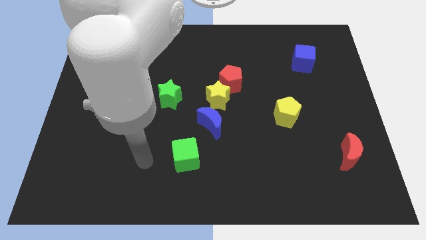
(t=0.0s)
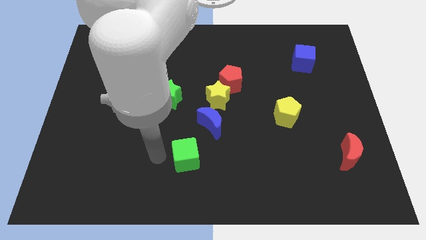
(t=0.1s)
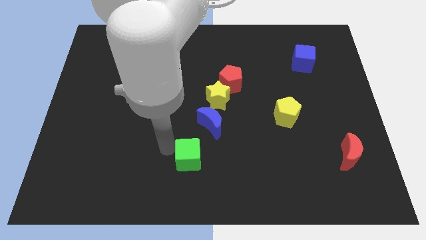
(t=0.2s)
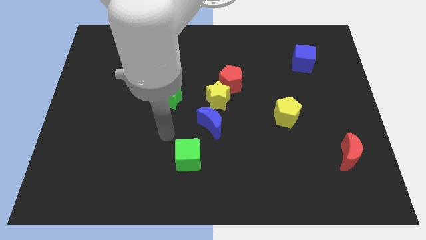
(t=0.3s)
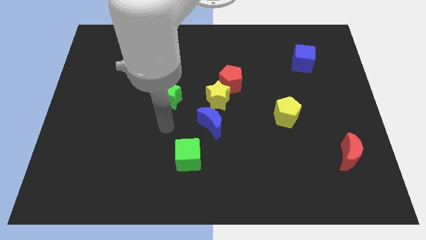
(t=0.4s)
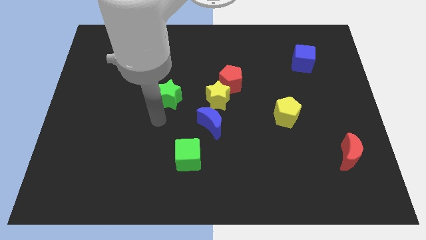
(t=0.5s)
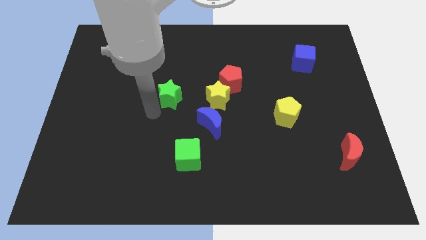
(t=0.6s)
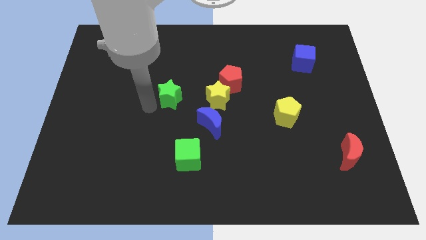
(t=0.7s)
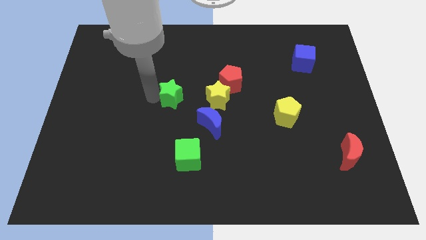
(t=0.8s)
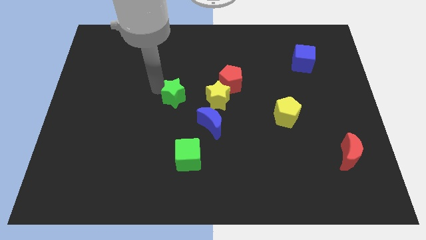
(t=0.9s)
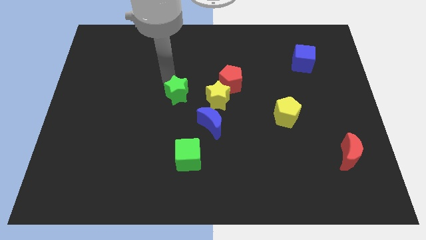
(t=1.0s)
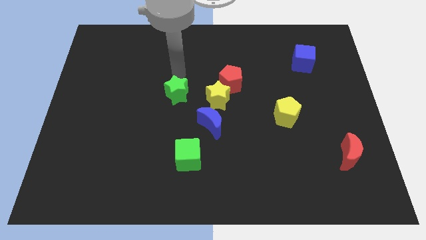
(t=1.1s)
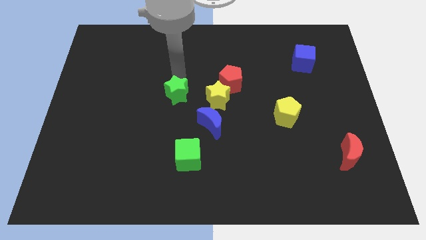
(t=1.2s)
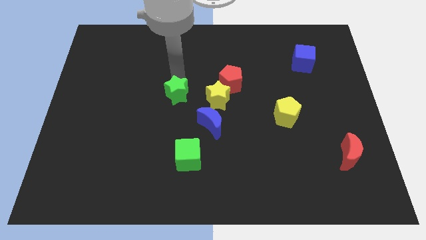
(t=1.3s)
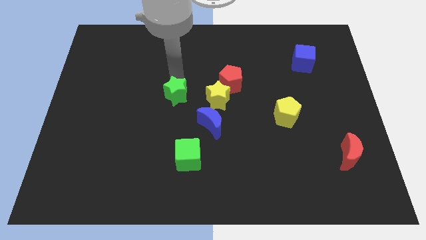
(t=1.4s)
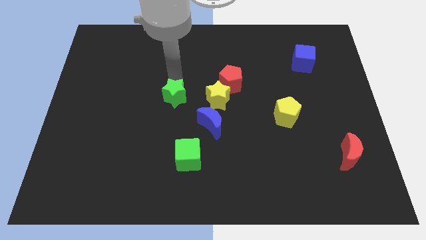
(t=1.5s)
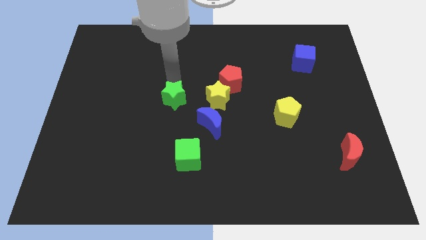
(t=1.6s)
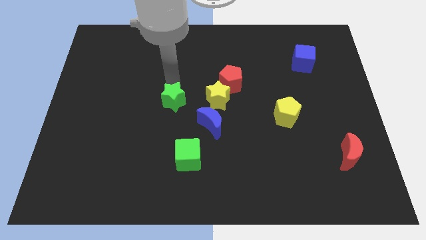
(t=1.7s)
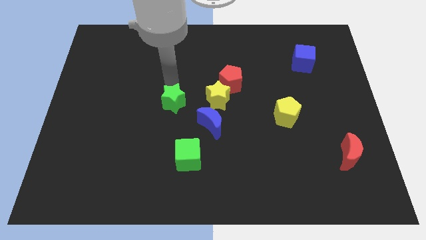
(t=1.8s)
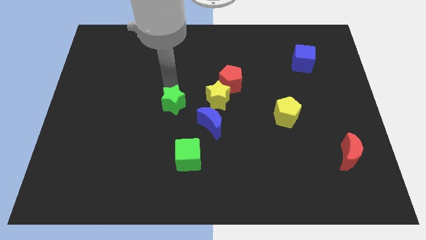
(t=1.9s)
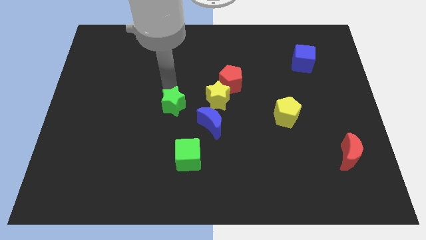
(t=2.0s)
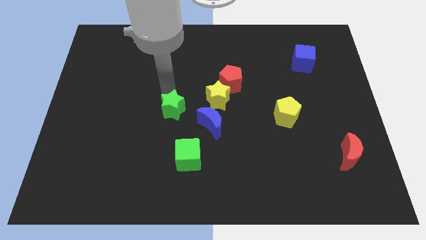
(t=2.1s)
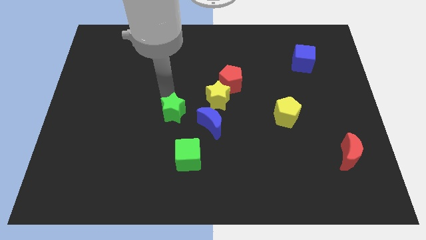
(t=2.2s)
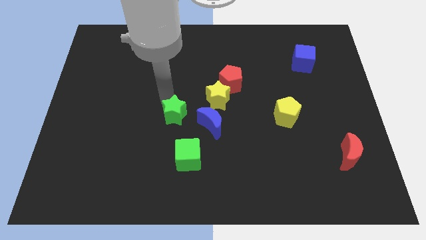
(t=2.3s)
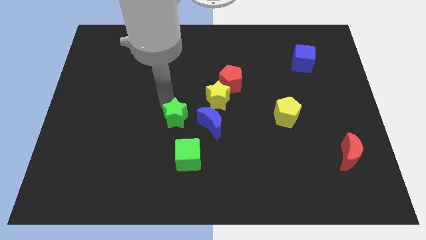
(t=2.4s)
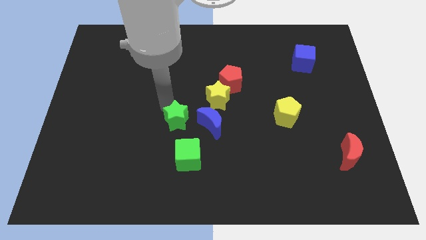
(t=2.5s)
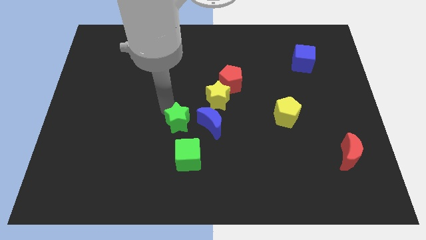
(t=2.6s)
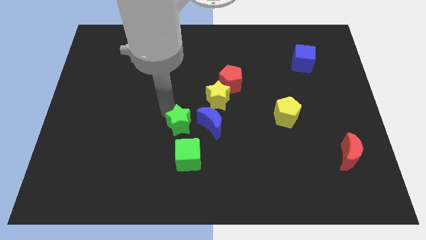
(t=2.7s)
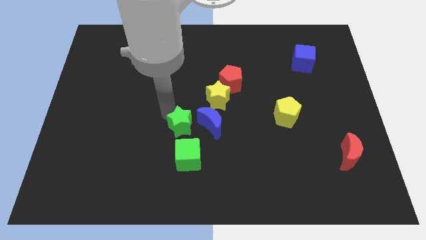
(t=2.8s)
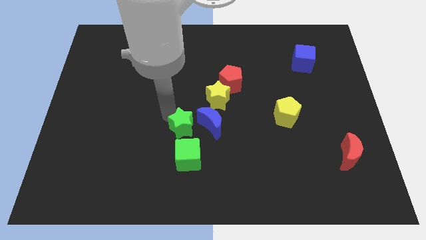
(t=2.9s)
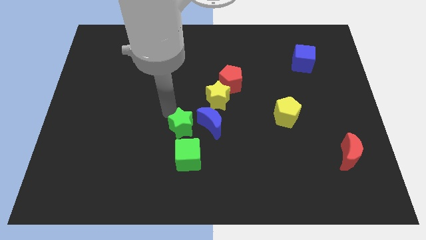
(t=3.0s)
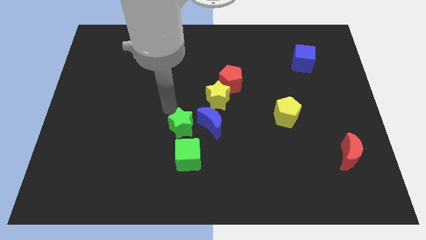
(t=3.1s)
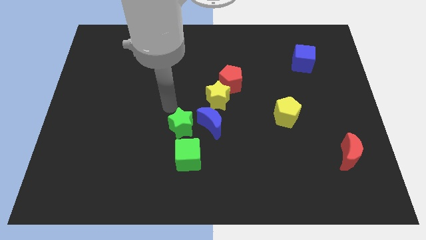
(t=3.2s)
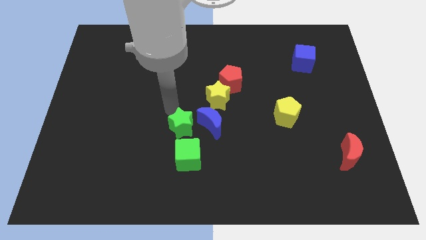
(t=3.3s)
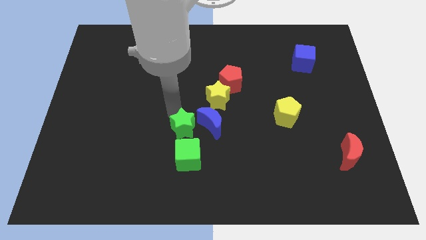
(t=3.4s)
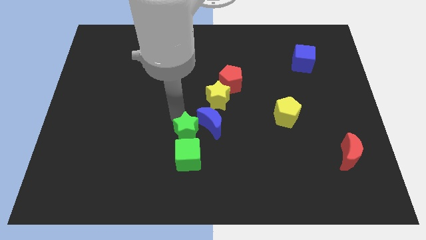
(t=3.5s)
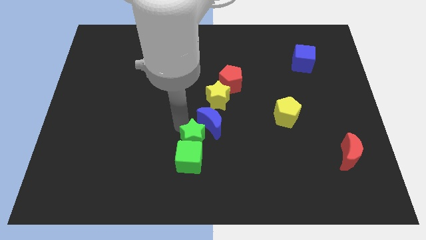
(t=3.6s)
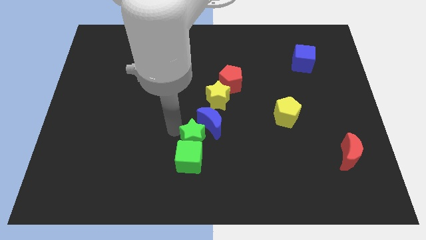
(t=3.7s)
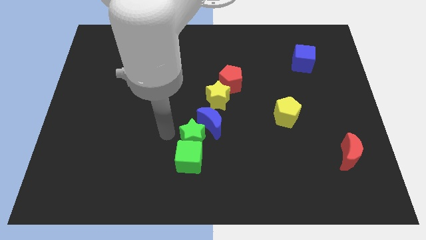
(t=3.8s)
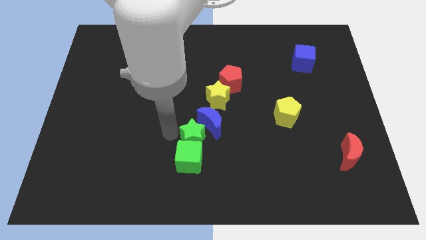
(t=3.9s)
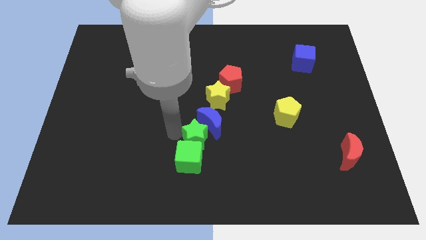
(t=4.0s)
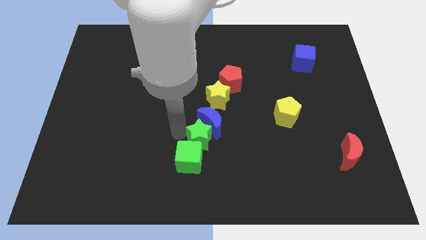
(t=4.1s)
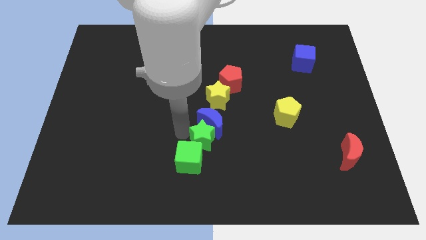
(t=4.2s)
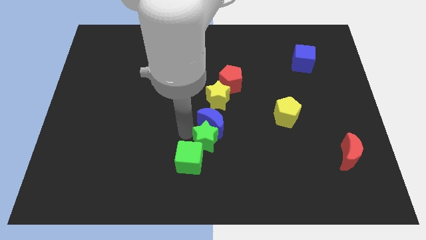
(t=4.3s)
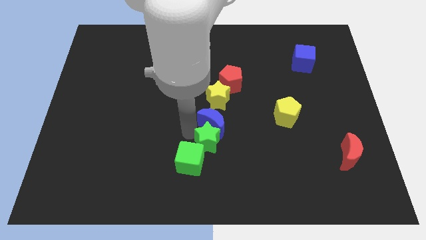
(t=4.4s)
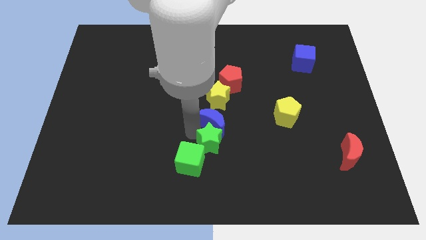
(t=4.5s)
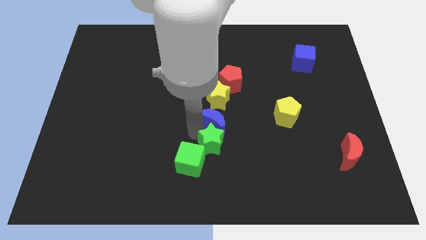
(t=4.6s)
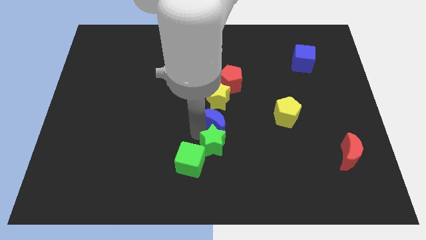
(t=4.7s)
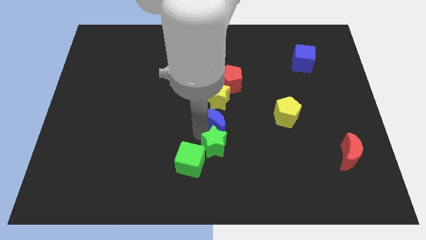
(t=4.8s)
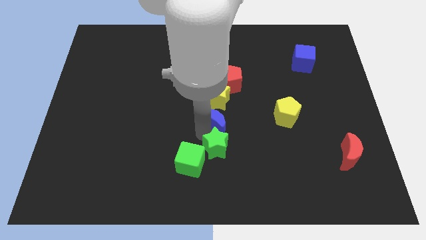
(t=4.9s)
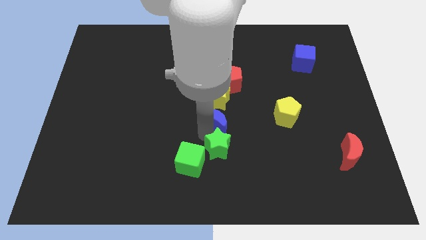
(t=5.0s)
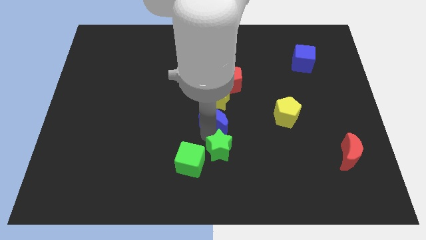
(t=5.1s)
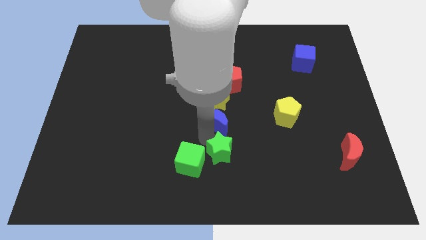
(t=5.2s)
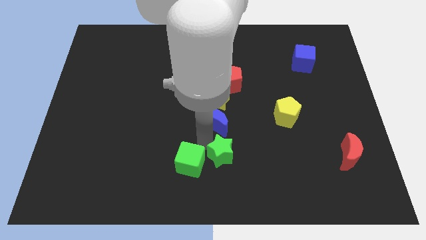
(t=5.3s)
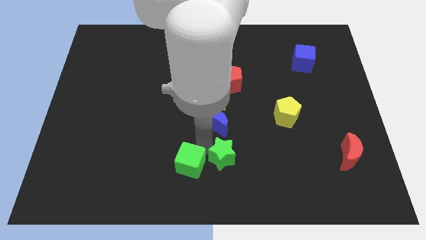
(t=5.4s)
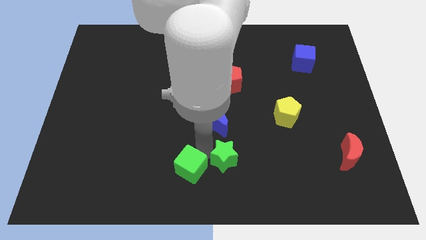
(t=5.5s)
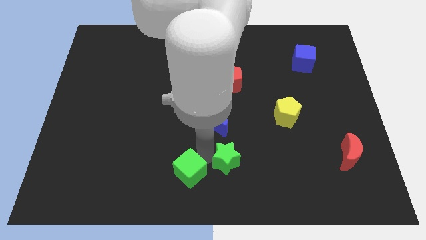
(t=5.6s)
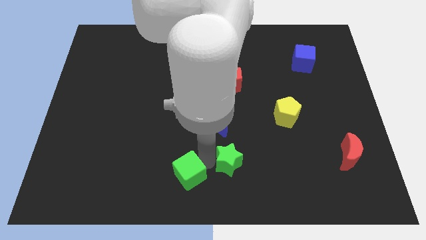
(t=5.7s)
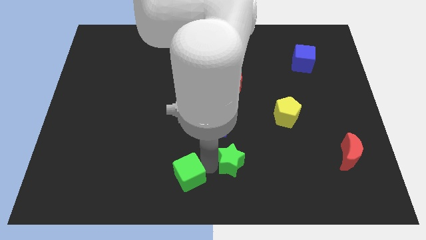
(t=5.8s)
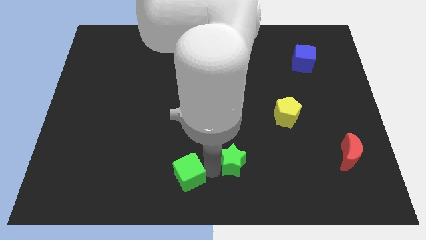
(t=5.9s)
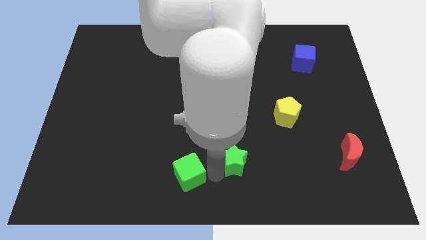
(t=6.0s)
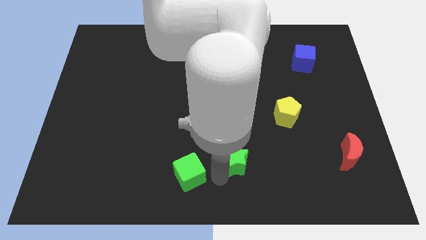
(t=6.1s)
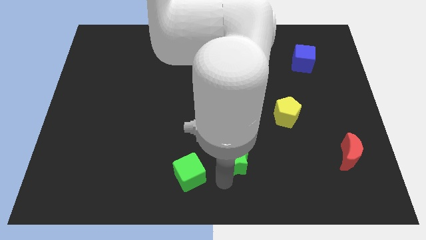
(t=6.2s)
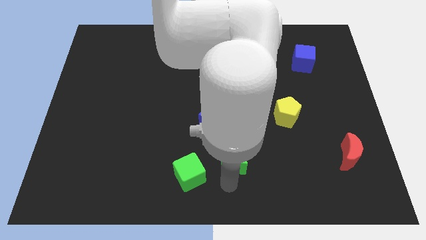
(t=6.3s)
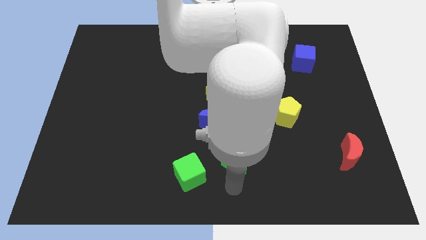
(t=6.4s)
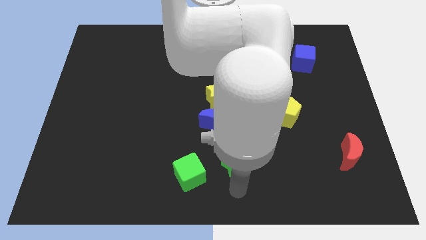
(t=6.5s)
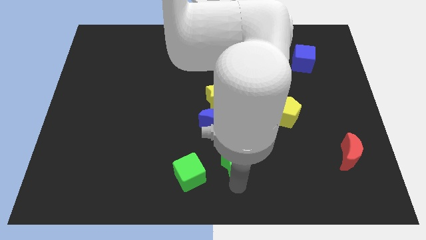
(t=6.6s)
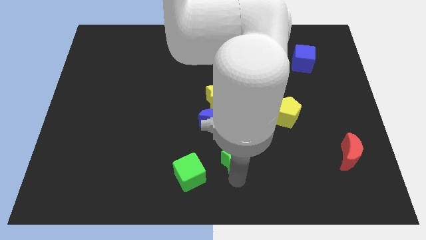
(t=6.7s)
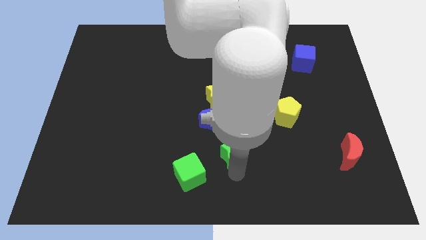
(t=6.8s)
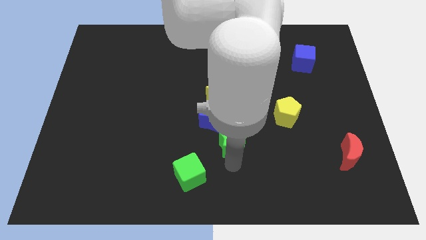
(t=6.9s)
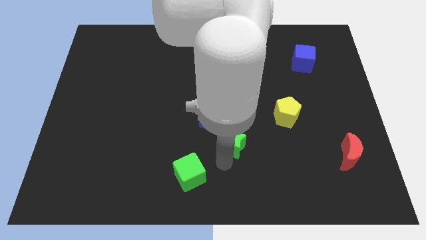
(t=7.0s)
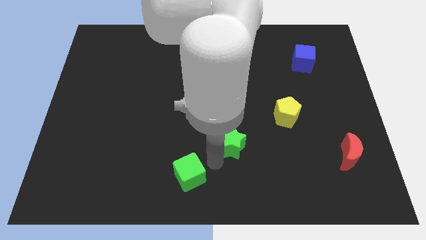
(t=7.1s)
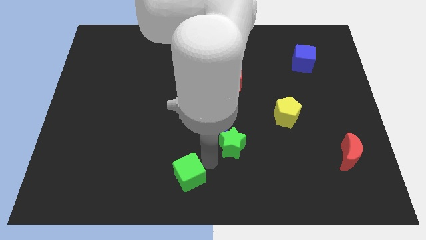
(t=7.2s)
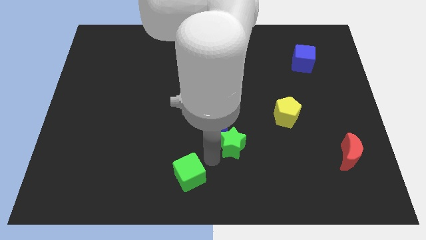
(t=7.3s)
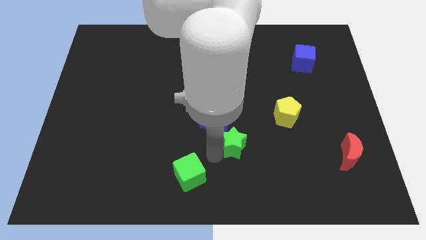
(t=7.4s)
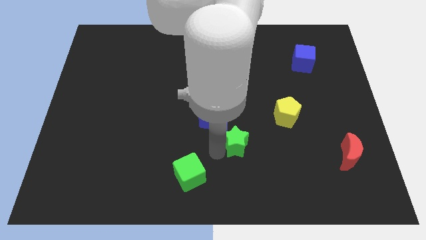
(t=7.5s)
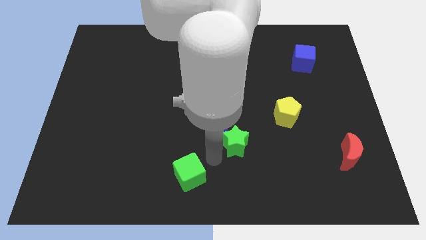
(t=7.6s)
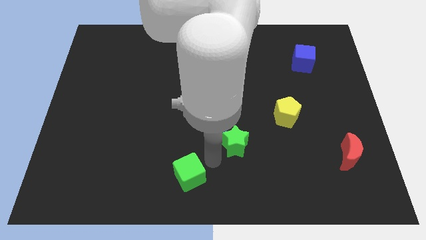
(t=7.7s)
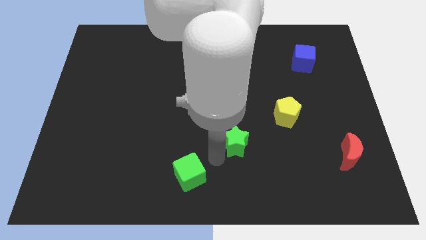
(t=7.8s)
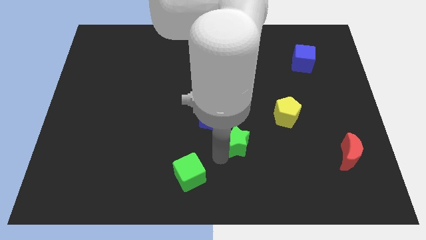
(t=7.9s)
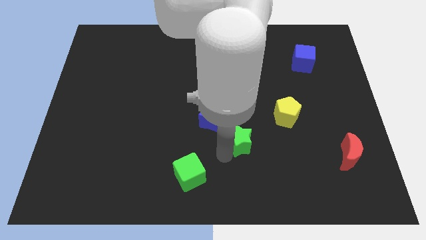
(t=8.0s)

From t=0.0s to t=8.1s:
slide the green star to the right side of the blue moon
